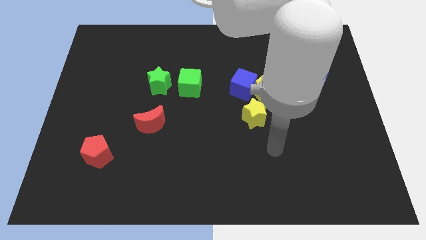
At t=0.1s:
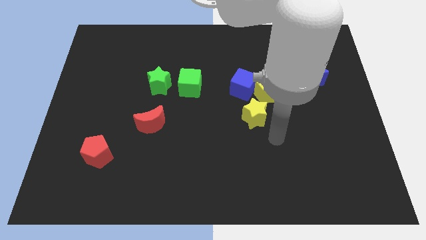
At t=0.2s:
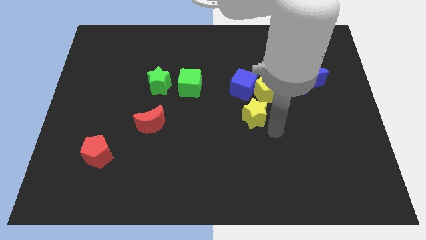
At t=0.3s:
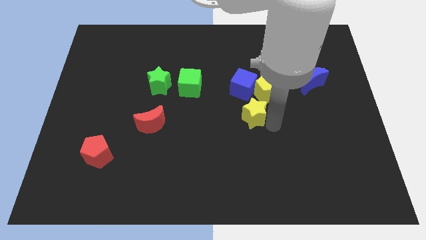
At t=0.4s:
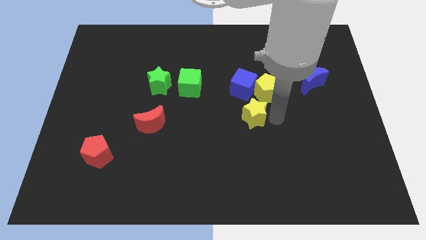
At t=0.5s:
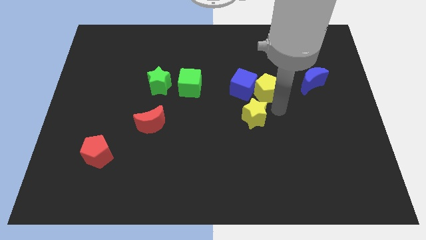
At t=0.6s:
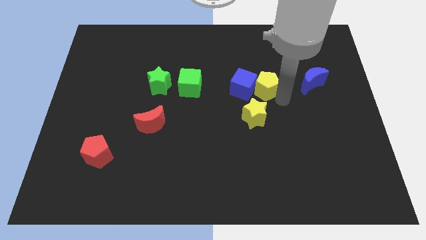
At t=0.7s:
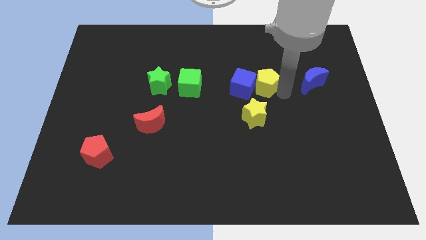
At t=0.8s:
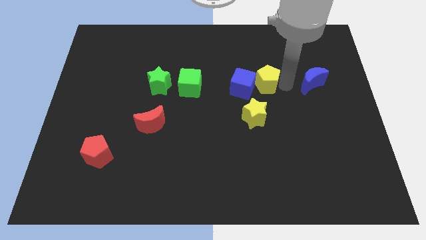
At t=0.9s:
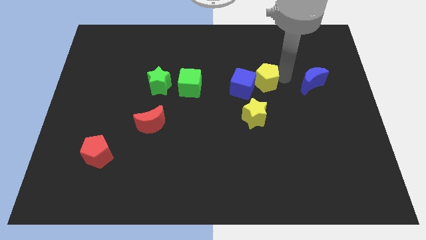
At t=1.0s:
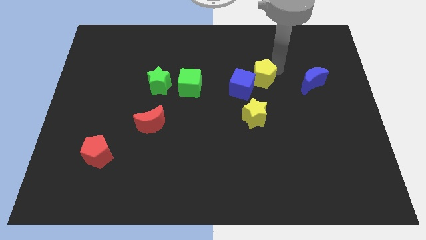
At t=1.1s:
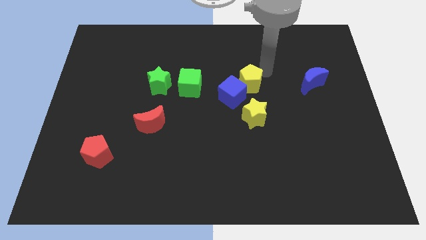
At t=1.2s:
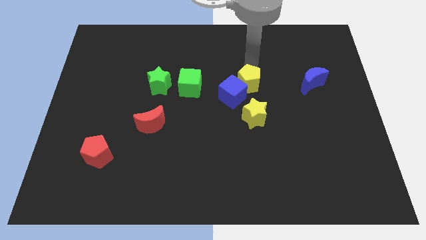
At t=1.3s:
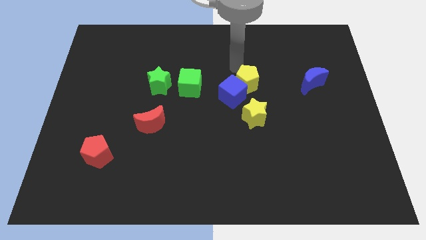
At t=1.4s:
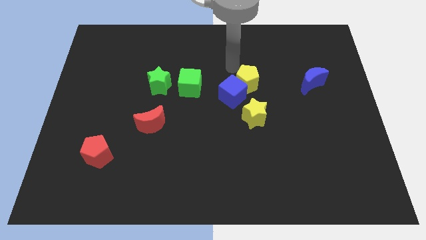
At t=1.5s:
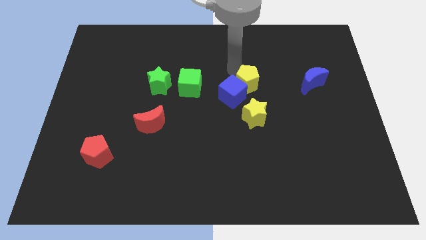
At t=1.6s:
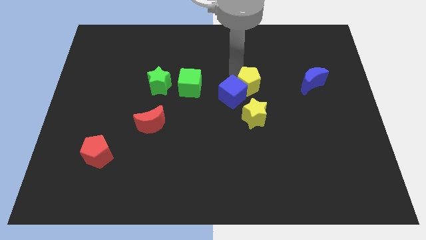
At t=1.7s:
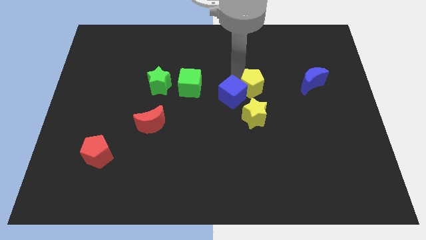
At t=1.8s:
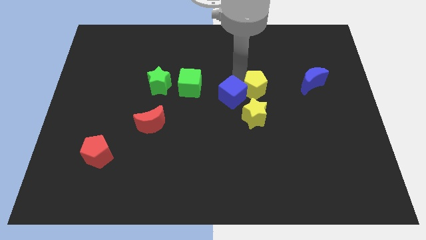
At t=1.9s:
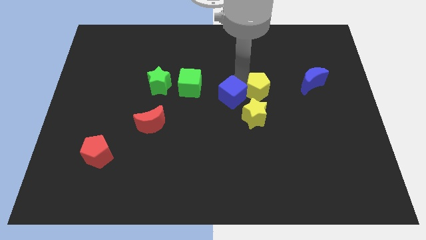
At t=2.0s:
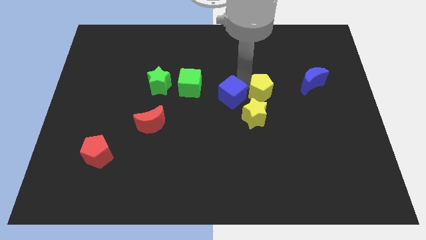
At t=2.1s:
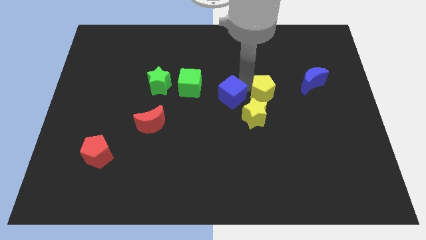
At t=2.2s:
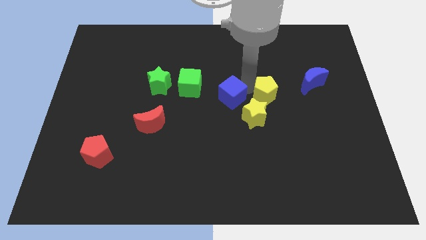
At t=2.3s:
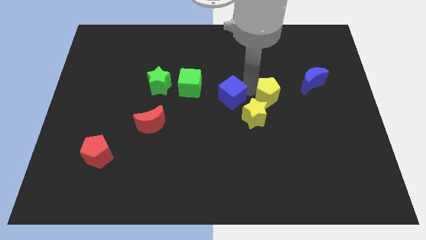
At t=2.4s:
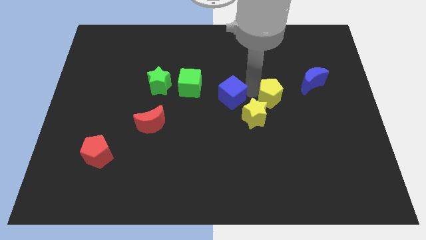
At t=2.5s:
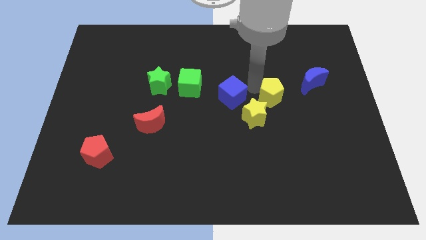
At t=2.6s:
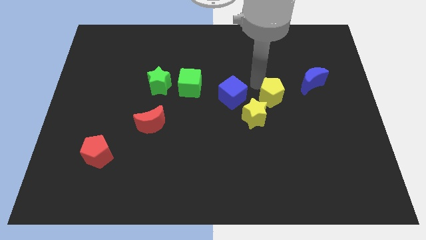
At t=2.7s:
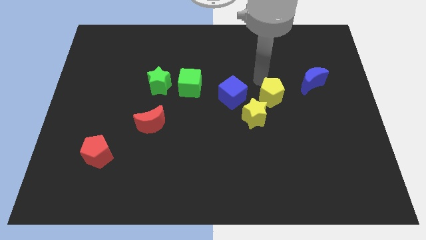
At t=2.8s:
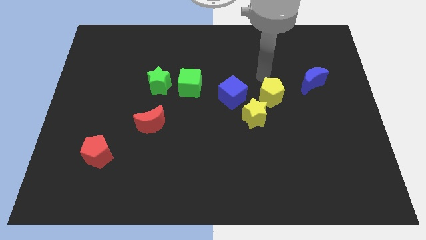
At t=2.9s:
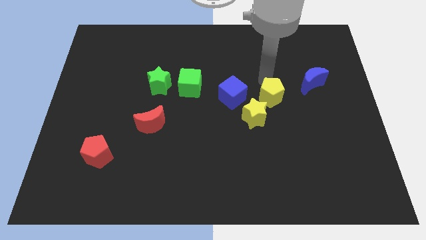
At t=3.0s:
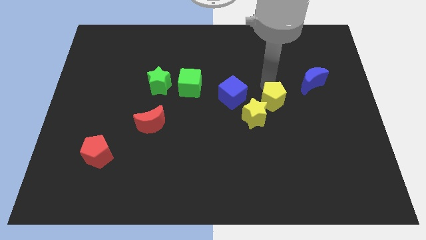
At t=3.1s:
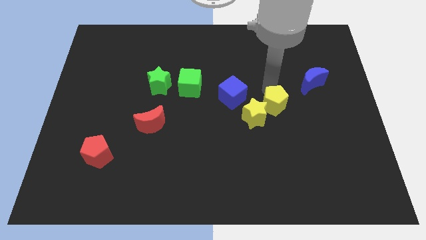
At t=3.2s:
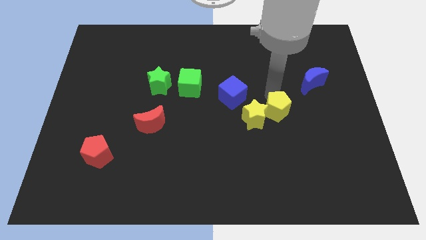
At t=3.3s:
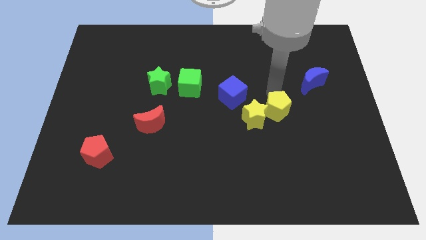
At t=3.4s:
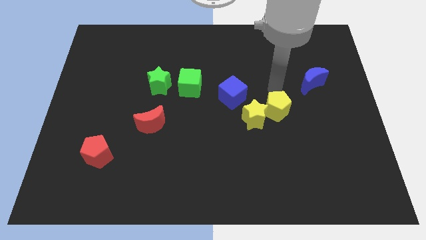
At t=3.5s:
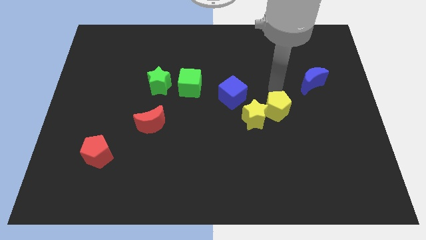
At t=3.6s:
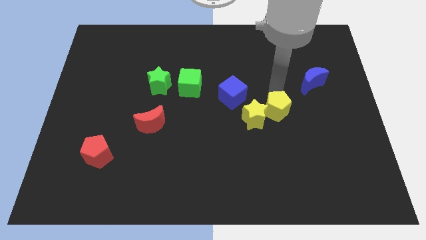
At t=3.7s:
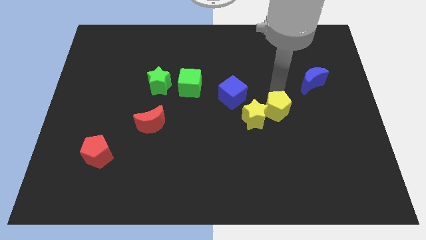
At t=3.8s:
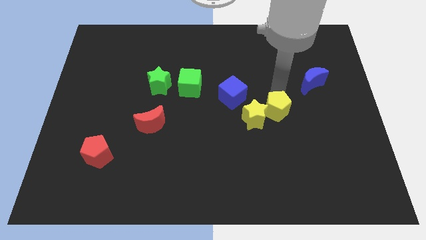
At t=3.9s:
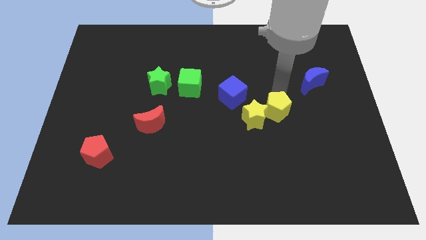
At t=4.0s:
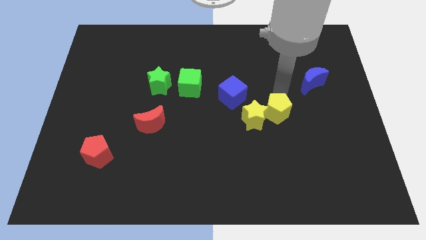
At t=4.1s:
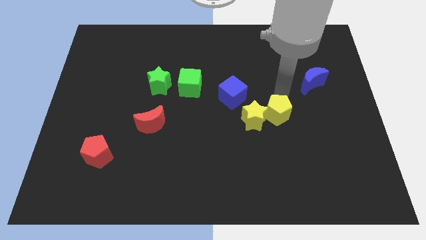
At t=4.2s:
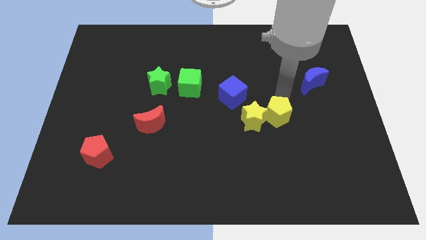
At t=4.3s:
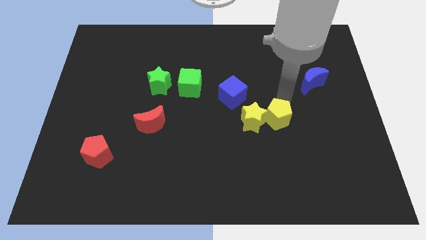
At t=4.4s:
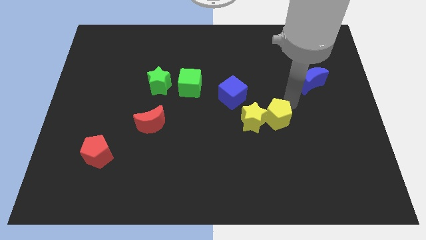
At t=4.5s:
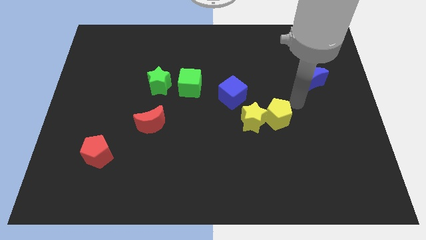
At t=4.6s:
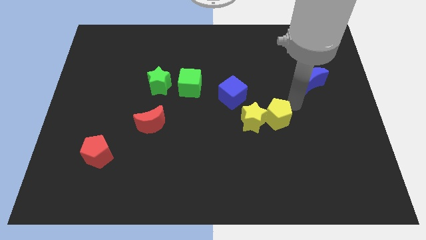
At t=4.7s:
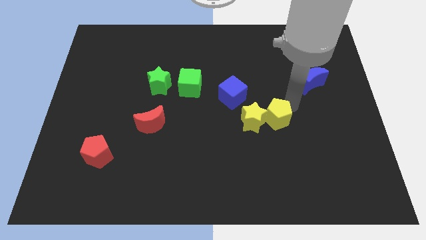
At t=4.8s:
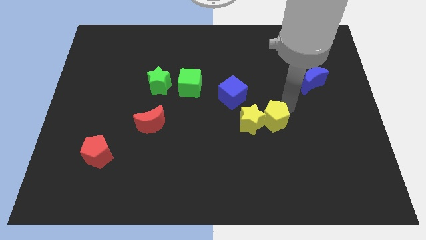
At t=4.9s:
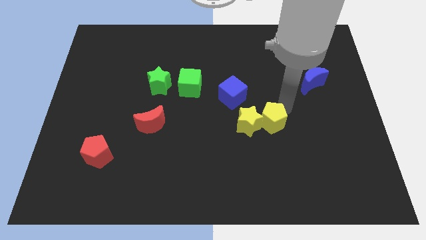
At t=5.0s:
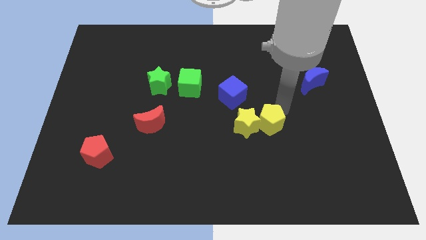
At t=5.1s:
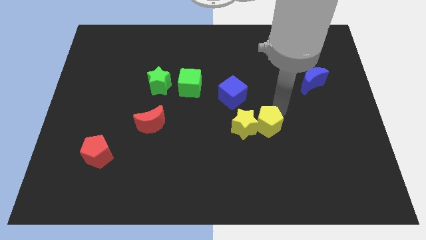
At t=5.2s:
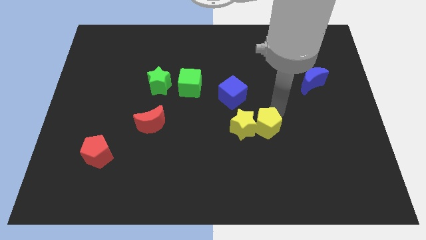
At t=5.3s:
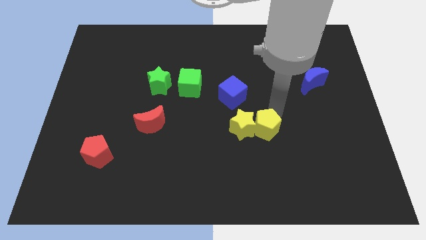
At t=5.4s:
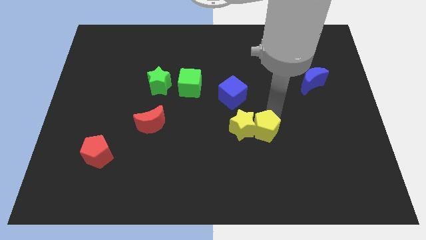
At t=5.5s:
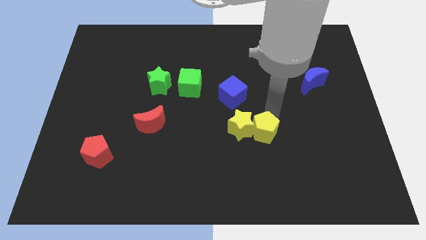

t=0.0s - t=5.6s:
slightly push the yellow pentagon diagonally down and to the left

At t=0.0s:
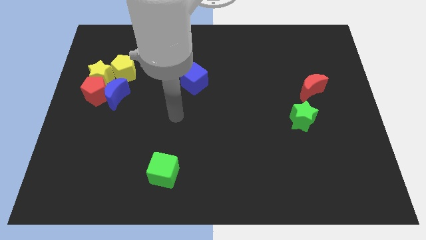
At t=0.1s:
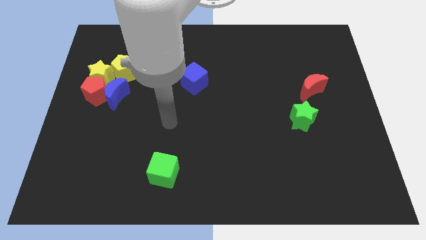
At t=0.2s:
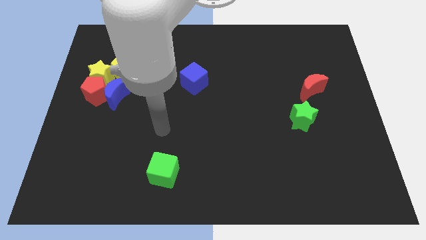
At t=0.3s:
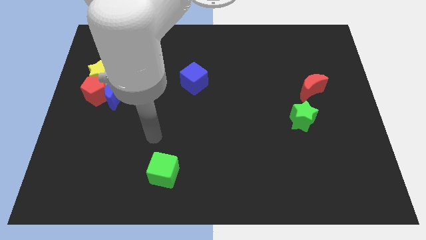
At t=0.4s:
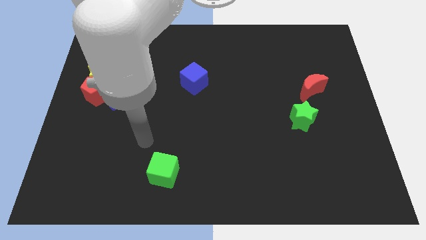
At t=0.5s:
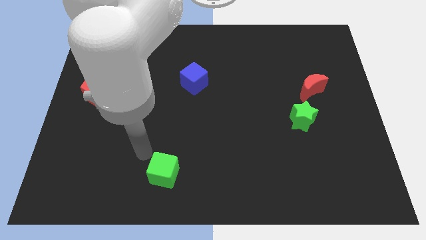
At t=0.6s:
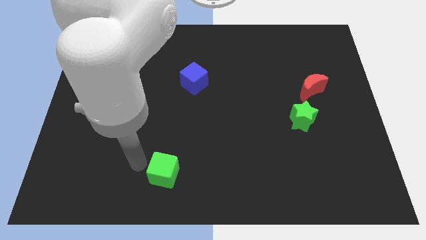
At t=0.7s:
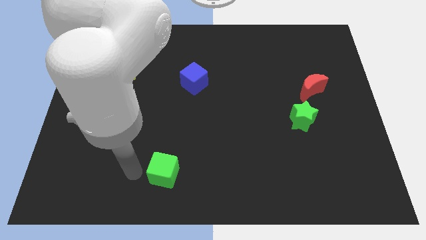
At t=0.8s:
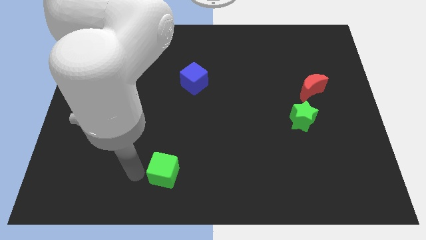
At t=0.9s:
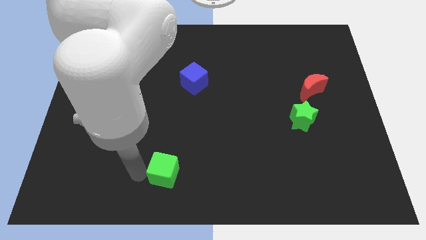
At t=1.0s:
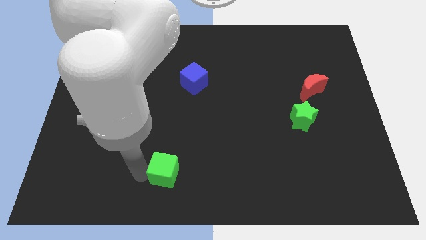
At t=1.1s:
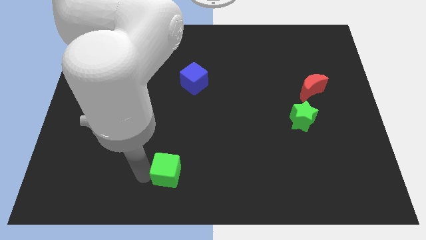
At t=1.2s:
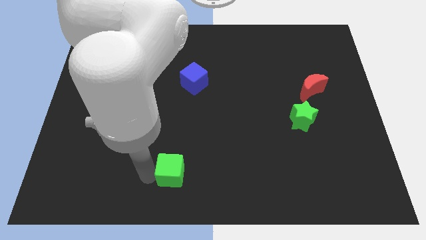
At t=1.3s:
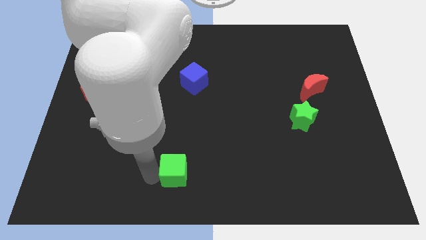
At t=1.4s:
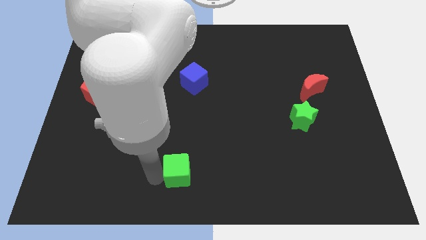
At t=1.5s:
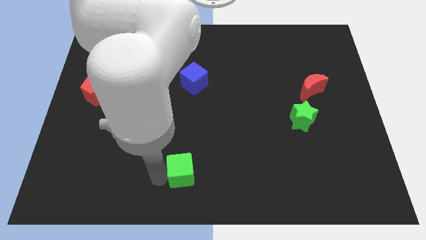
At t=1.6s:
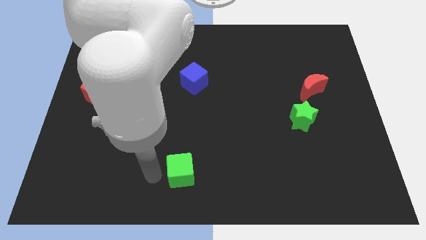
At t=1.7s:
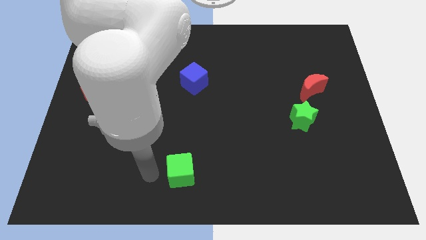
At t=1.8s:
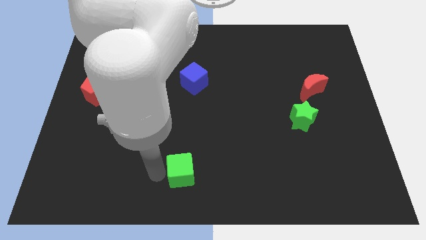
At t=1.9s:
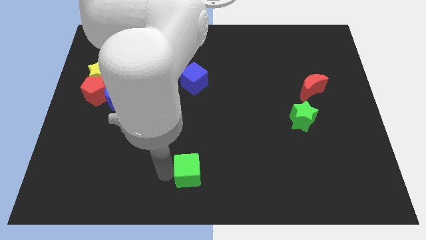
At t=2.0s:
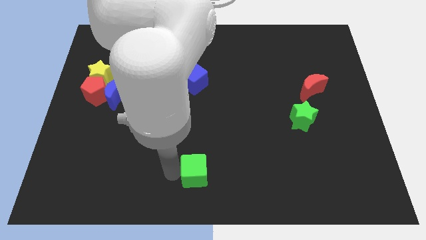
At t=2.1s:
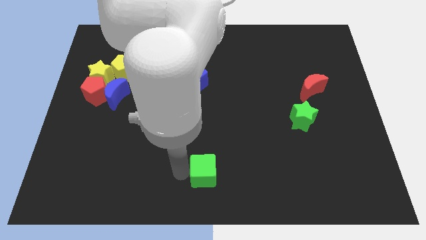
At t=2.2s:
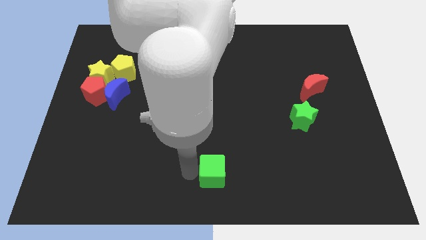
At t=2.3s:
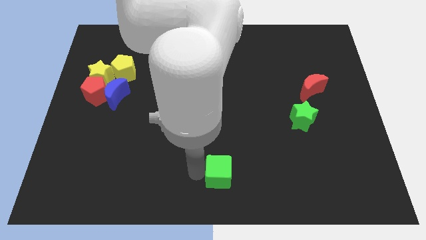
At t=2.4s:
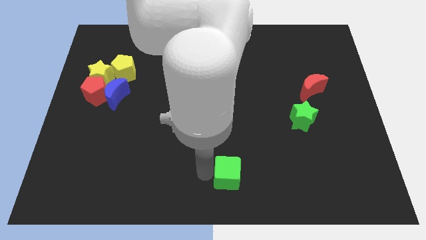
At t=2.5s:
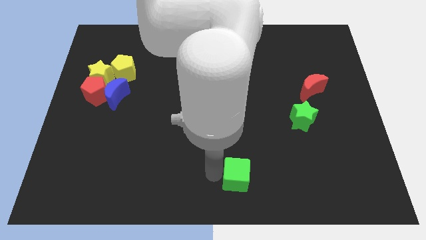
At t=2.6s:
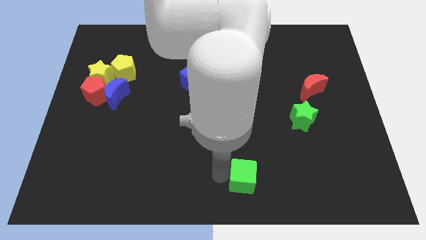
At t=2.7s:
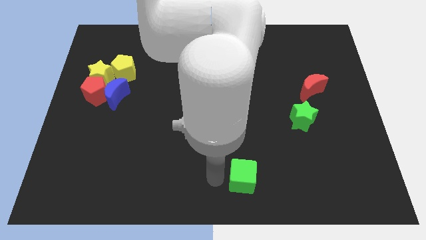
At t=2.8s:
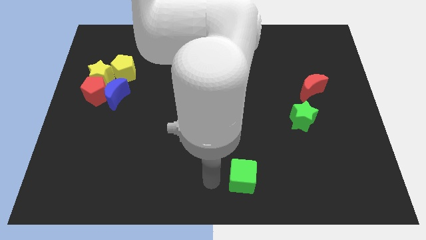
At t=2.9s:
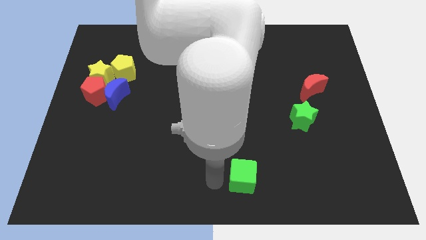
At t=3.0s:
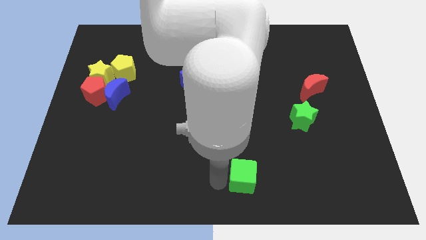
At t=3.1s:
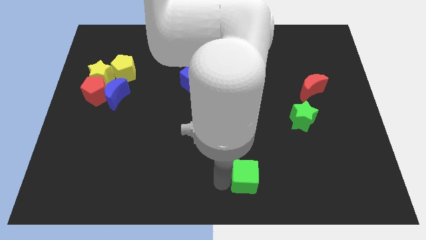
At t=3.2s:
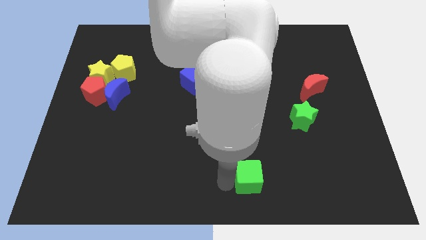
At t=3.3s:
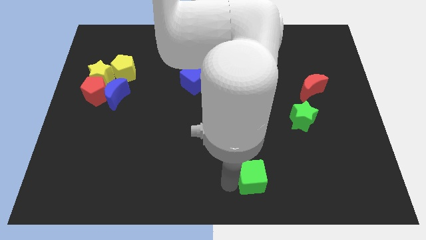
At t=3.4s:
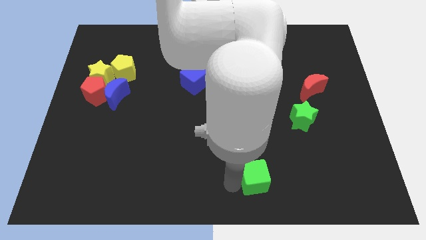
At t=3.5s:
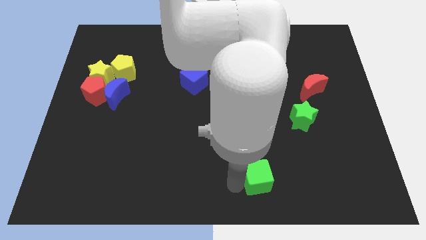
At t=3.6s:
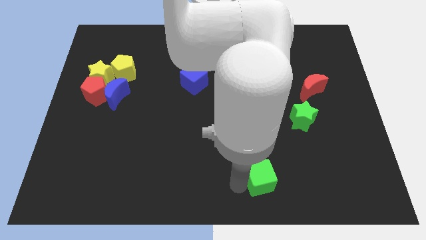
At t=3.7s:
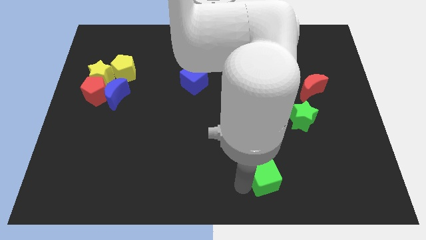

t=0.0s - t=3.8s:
push the green cube to the right
